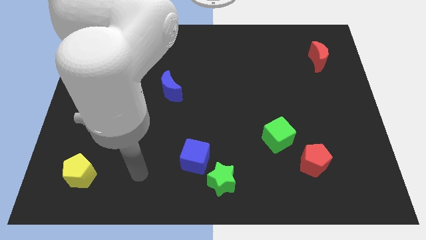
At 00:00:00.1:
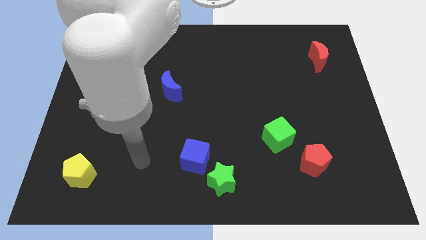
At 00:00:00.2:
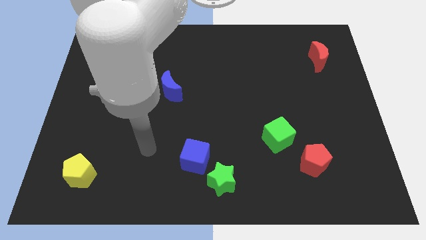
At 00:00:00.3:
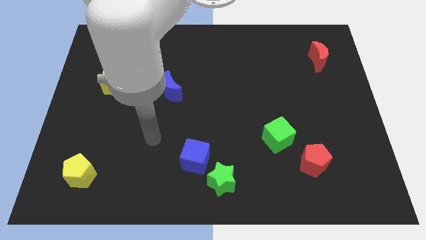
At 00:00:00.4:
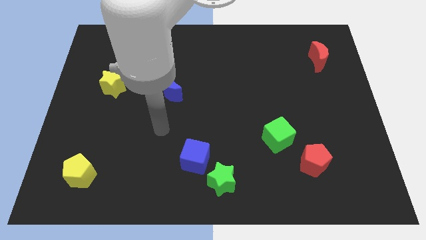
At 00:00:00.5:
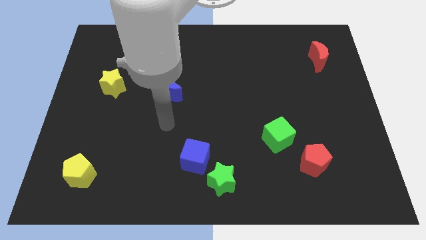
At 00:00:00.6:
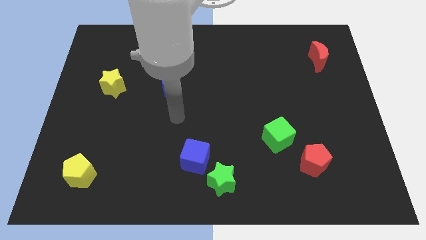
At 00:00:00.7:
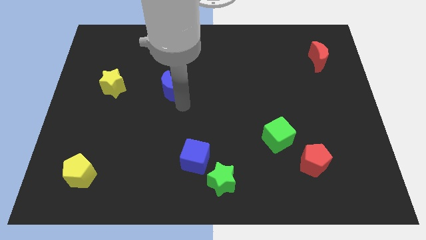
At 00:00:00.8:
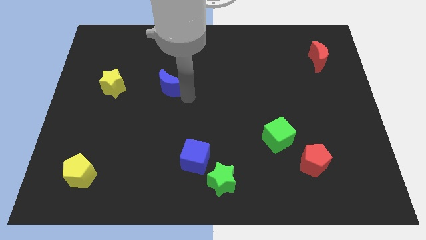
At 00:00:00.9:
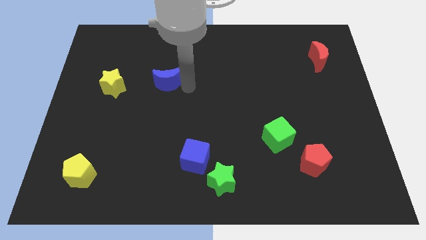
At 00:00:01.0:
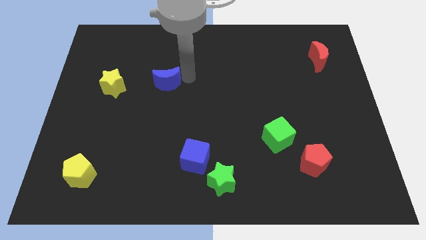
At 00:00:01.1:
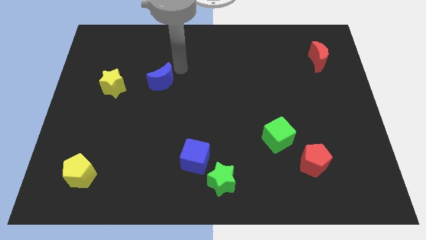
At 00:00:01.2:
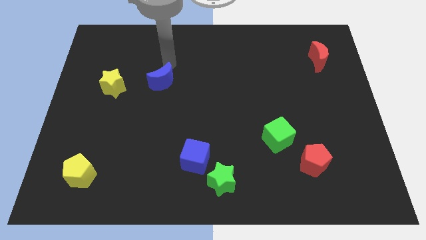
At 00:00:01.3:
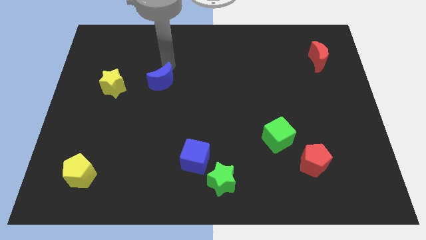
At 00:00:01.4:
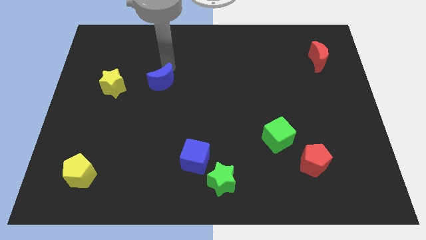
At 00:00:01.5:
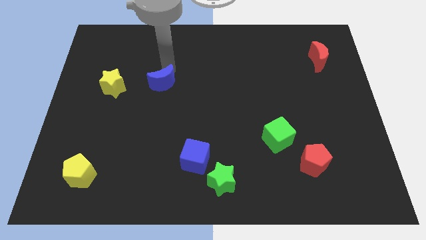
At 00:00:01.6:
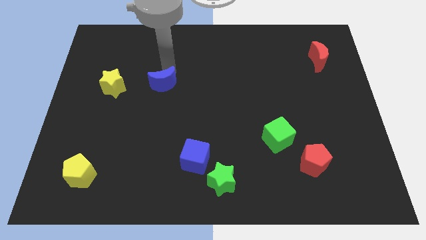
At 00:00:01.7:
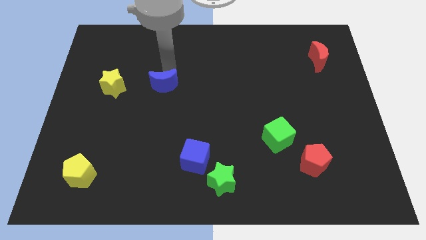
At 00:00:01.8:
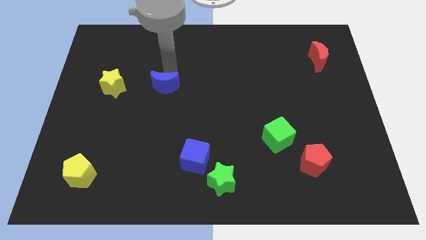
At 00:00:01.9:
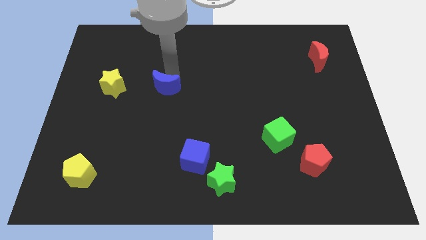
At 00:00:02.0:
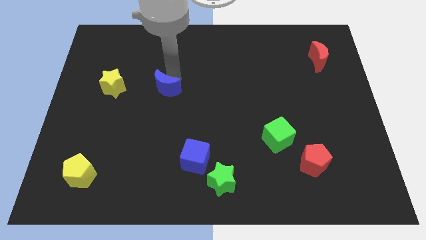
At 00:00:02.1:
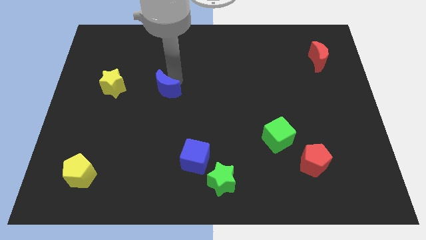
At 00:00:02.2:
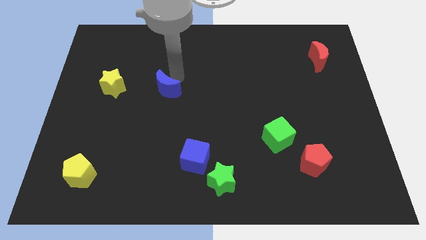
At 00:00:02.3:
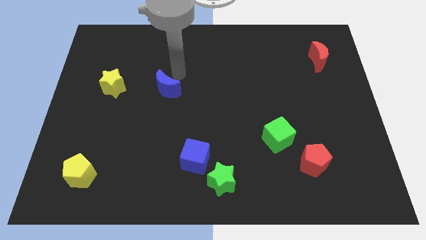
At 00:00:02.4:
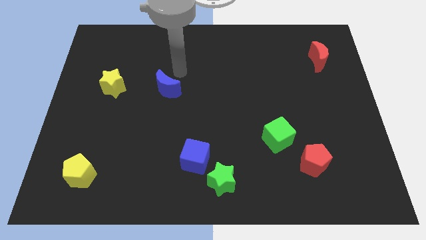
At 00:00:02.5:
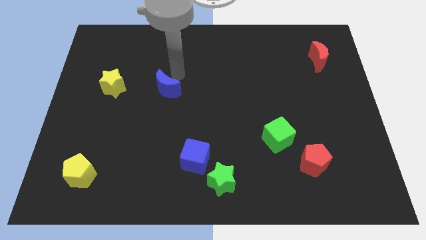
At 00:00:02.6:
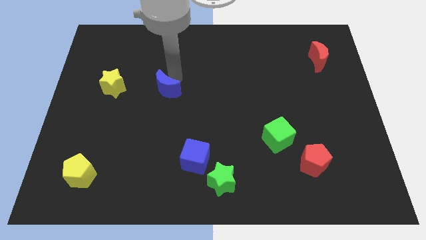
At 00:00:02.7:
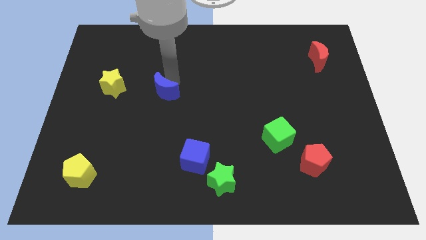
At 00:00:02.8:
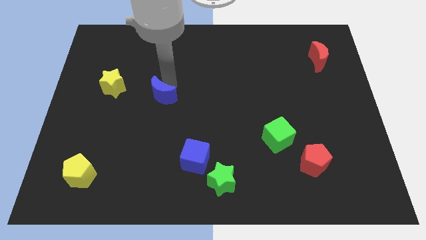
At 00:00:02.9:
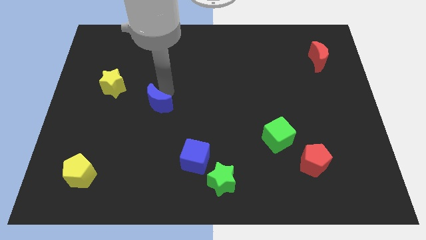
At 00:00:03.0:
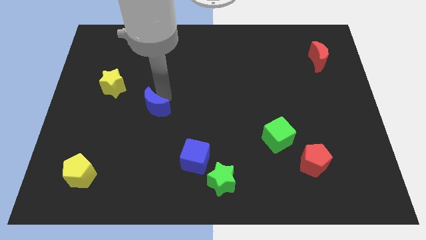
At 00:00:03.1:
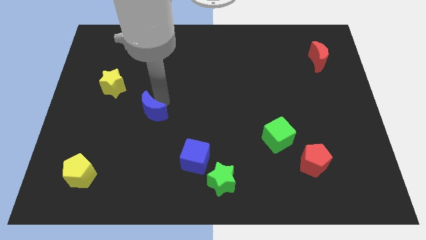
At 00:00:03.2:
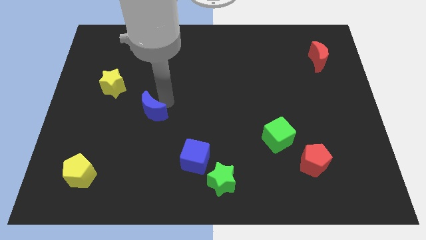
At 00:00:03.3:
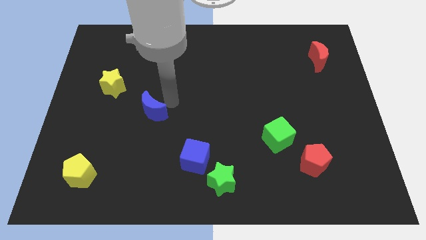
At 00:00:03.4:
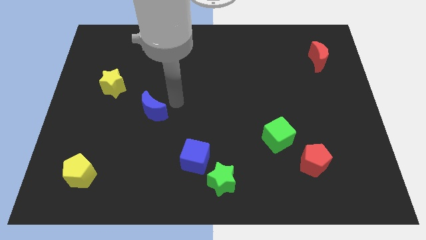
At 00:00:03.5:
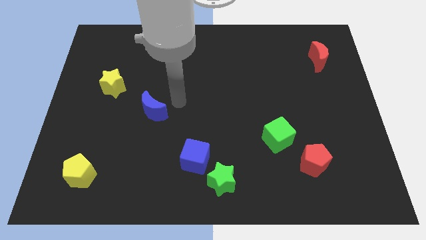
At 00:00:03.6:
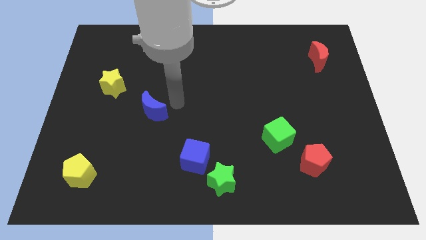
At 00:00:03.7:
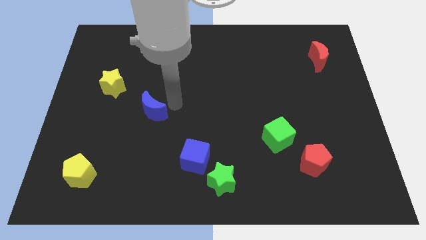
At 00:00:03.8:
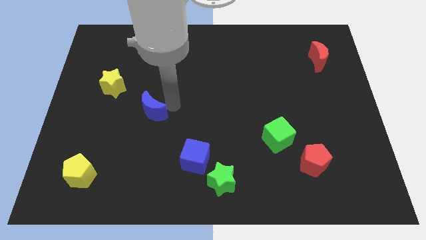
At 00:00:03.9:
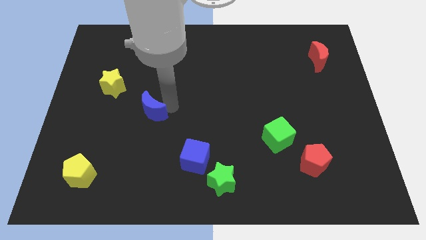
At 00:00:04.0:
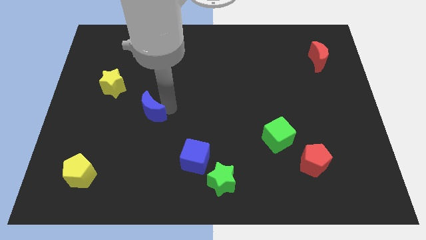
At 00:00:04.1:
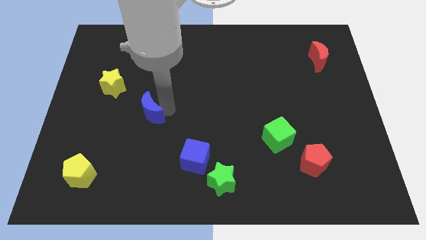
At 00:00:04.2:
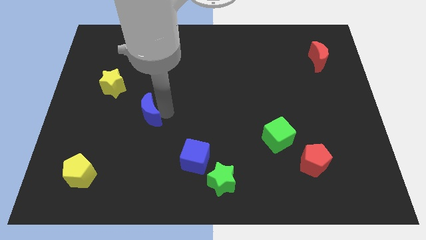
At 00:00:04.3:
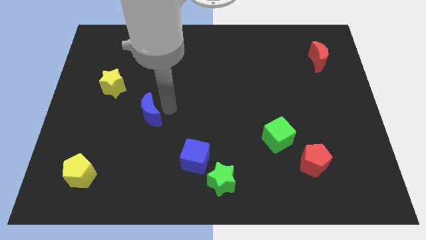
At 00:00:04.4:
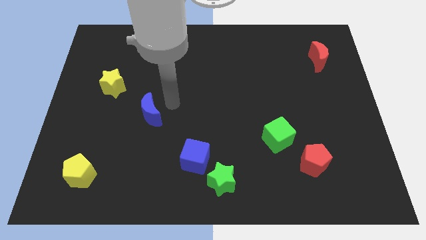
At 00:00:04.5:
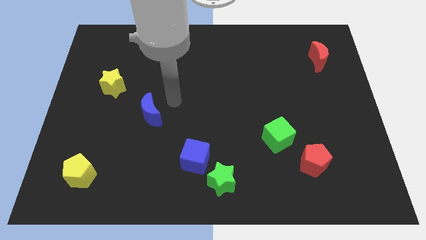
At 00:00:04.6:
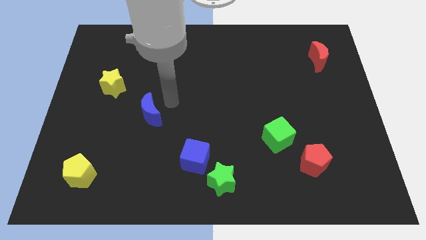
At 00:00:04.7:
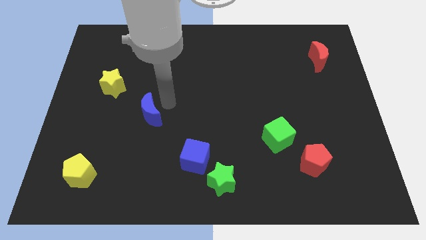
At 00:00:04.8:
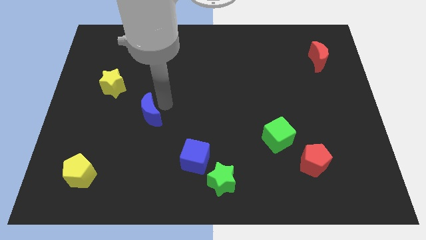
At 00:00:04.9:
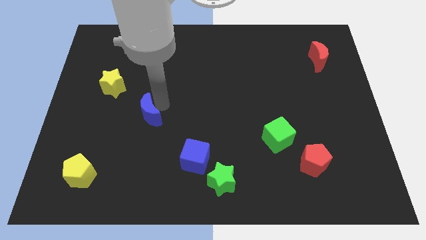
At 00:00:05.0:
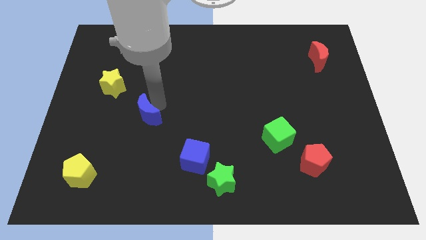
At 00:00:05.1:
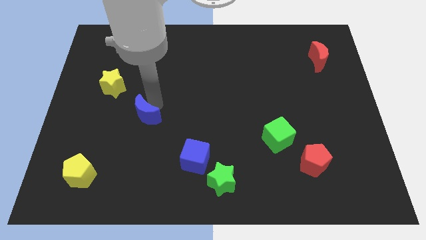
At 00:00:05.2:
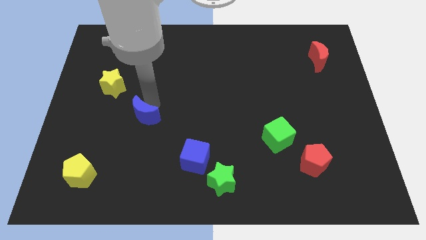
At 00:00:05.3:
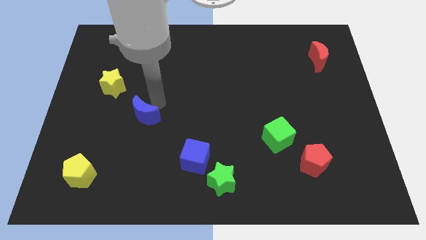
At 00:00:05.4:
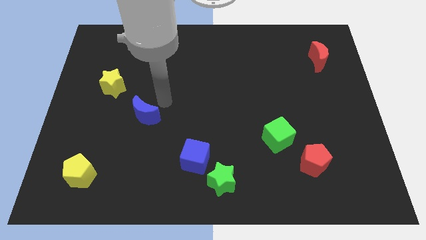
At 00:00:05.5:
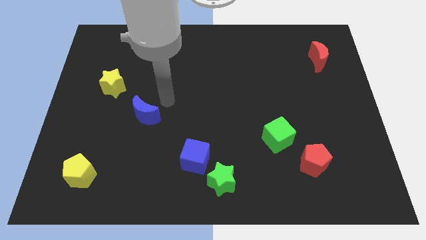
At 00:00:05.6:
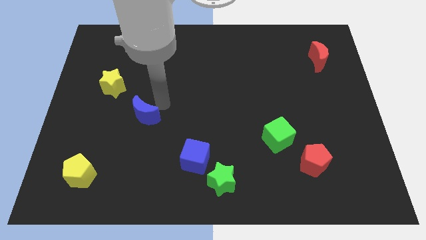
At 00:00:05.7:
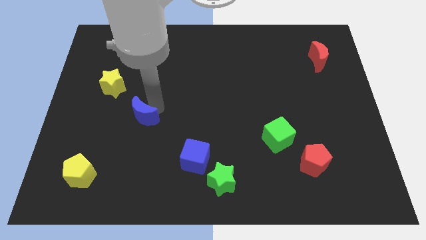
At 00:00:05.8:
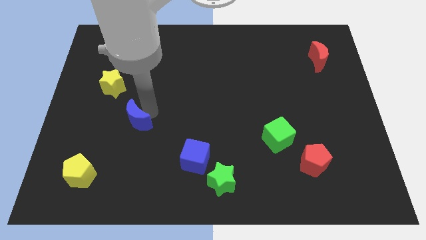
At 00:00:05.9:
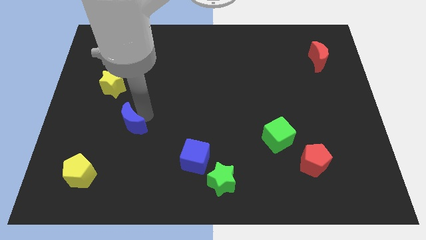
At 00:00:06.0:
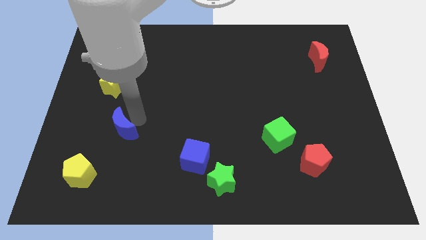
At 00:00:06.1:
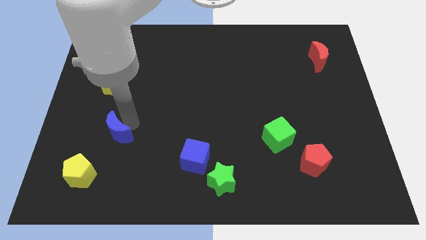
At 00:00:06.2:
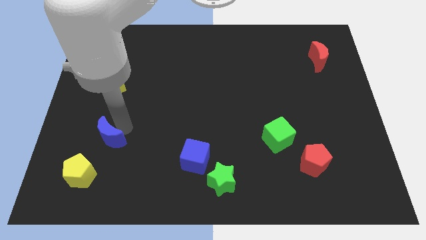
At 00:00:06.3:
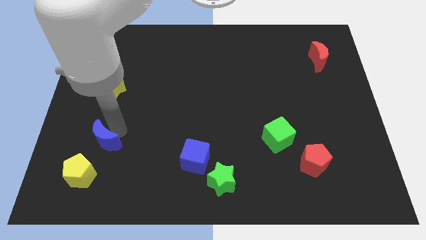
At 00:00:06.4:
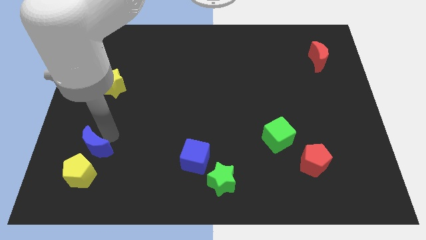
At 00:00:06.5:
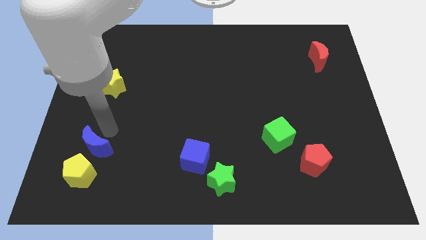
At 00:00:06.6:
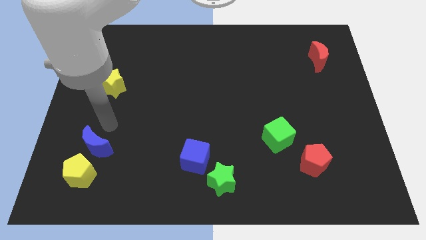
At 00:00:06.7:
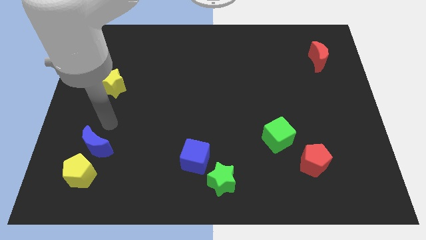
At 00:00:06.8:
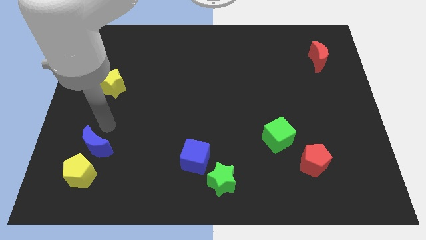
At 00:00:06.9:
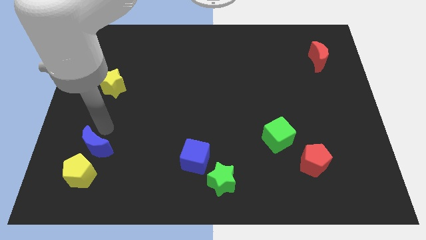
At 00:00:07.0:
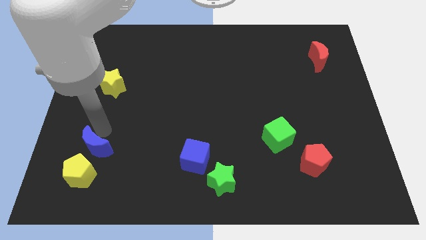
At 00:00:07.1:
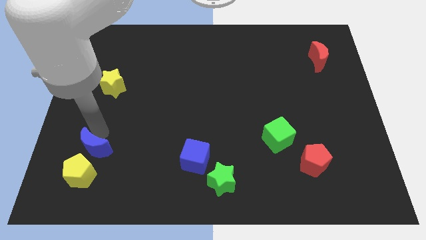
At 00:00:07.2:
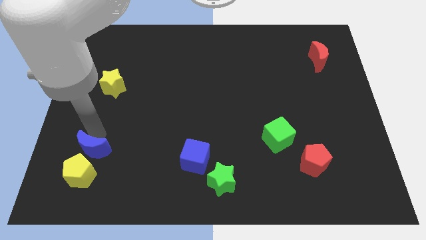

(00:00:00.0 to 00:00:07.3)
move the blue moon close to the yellow pentagon
